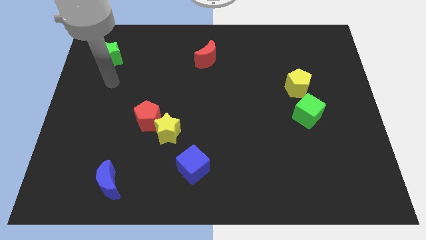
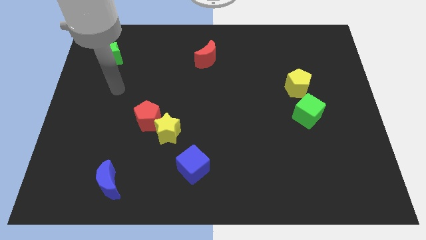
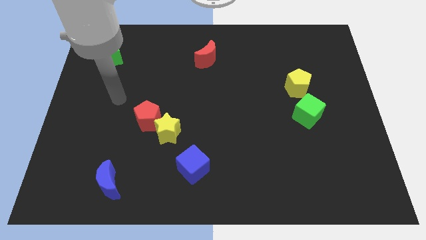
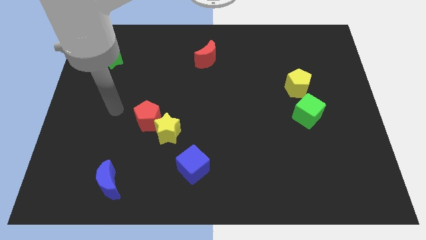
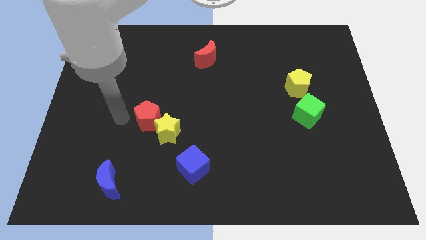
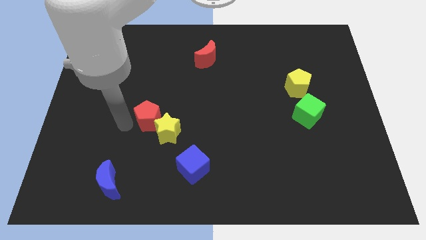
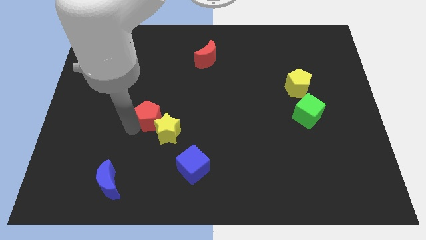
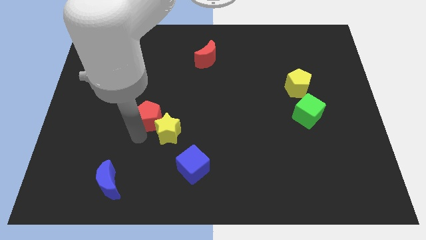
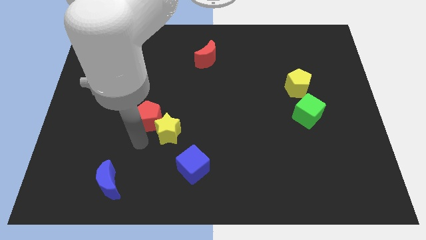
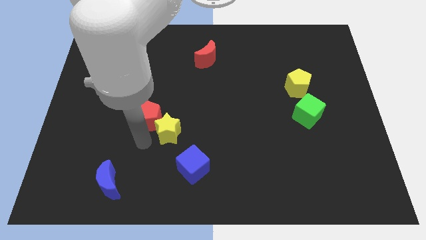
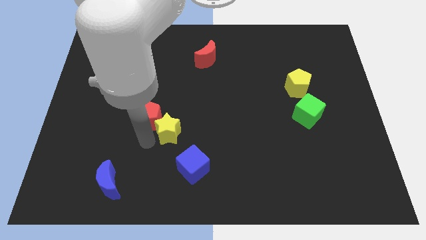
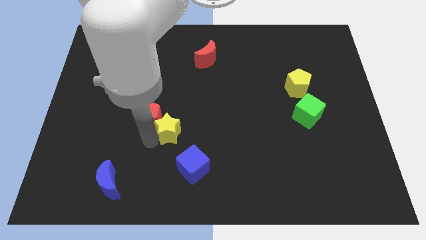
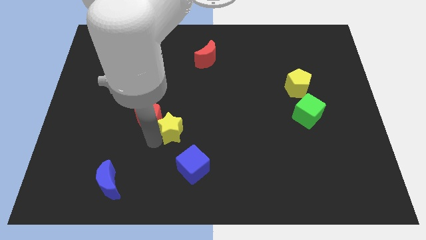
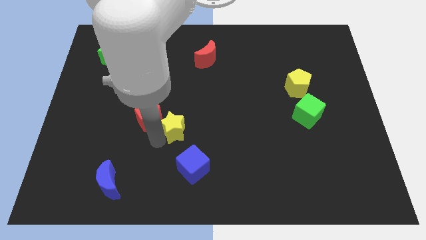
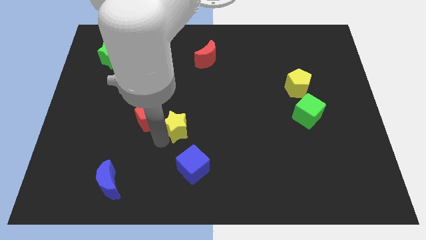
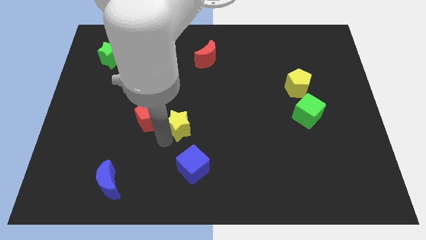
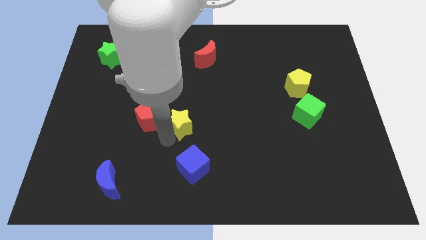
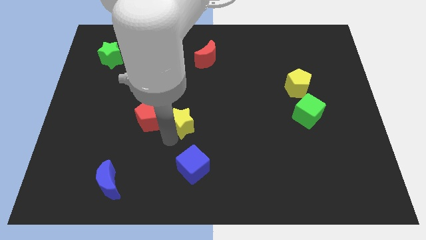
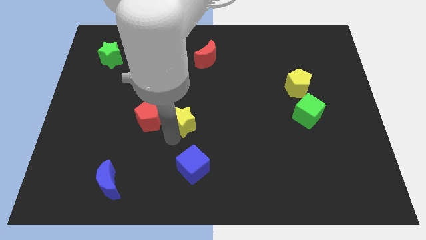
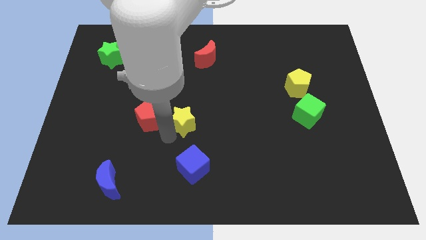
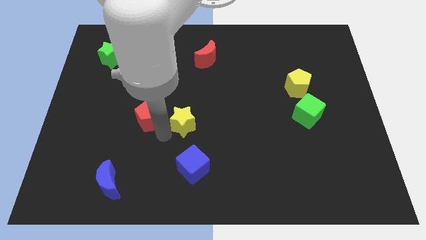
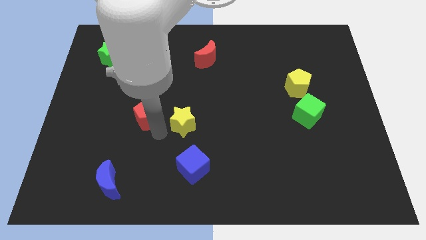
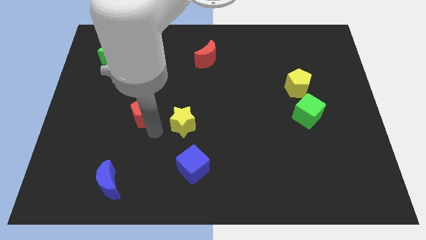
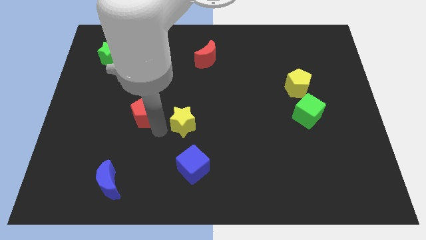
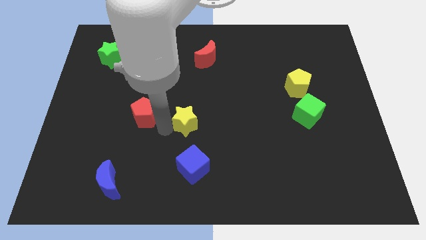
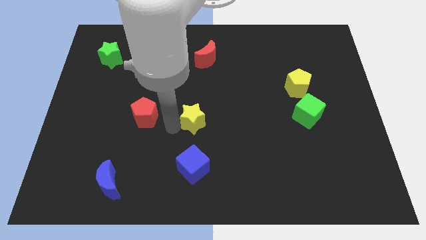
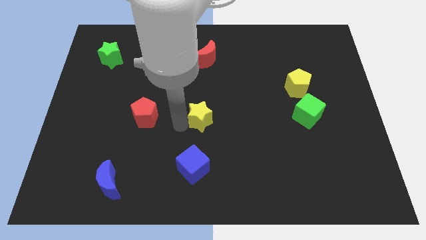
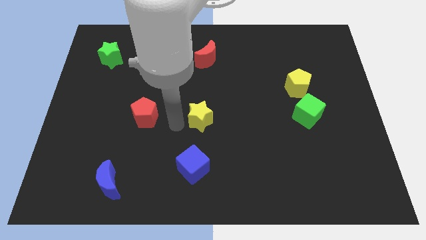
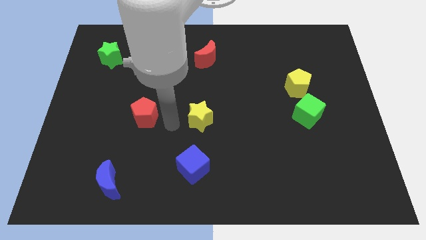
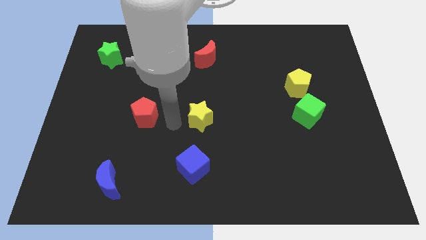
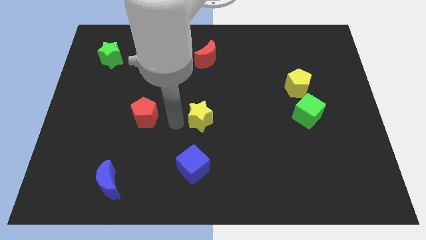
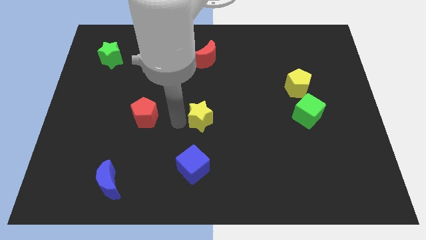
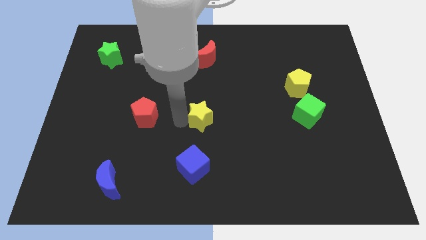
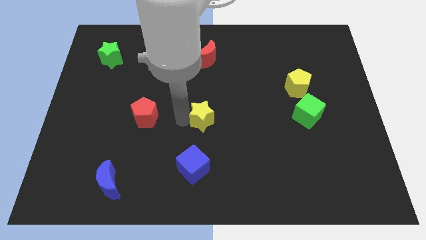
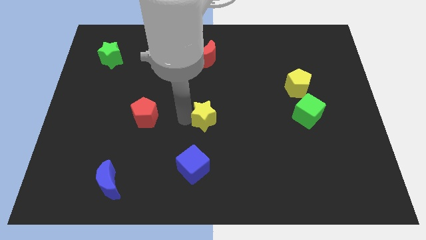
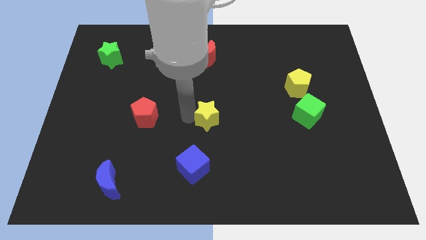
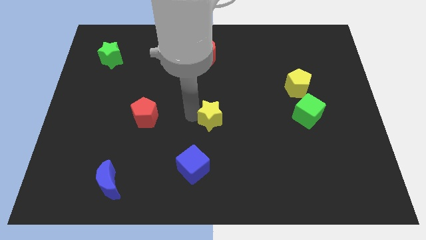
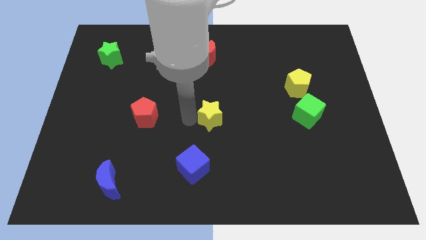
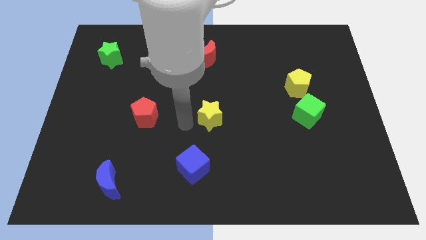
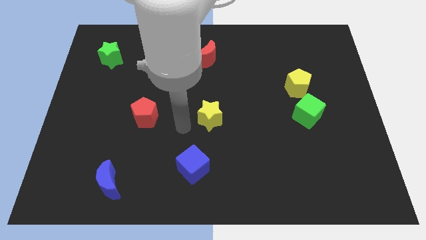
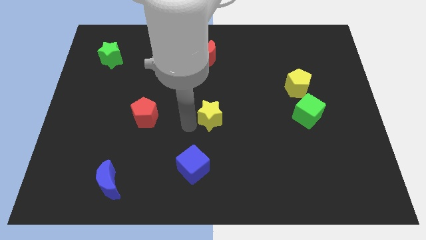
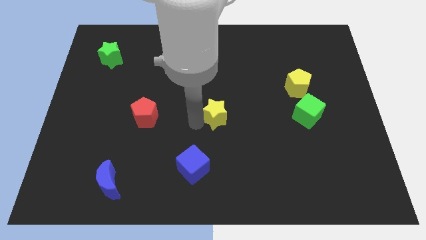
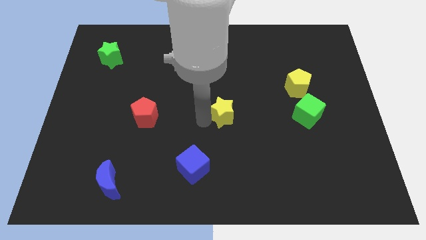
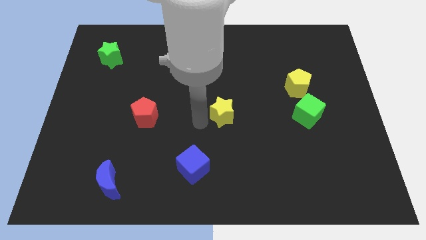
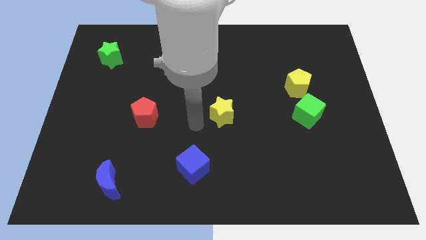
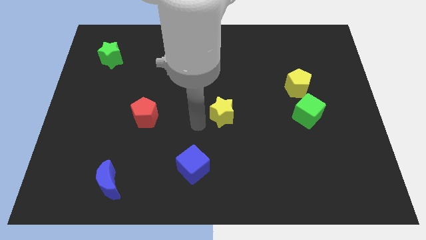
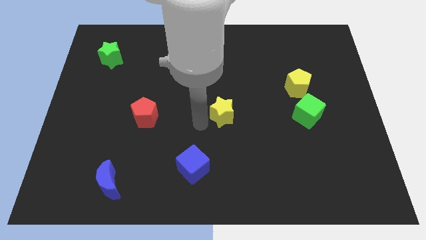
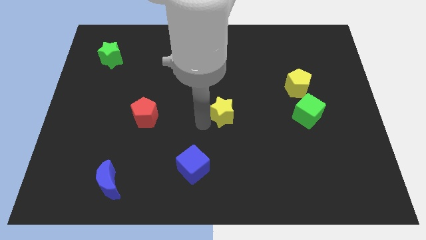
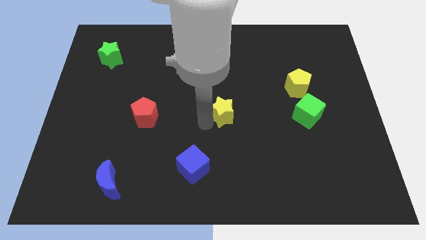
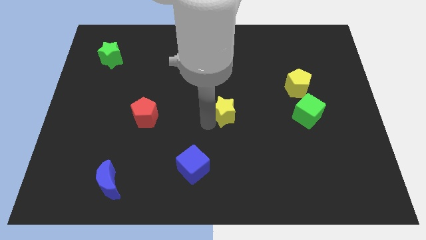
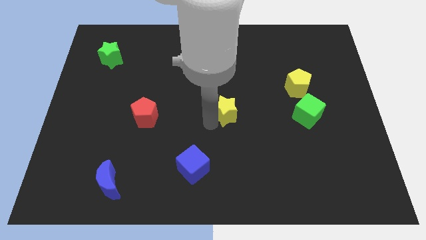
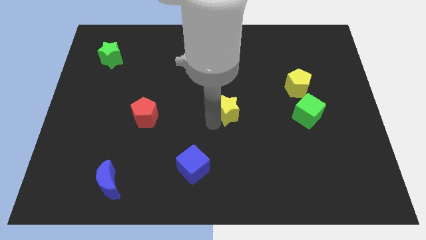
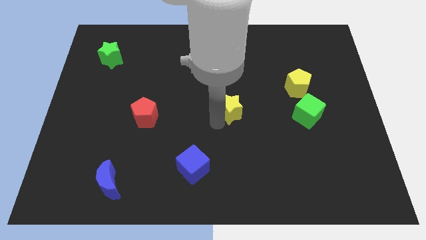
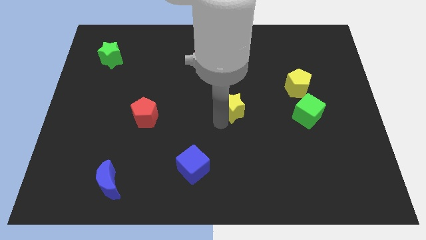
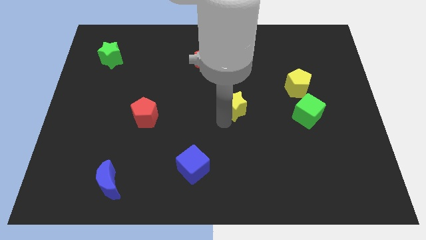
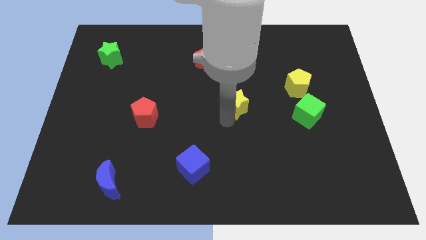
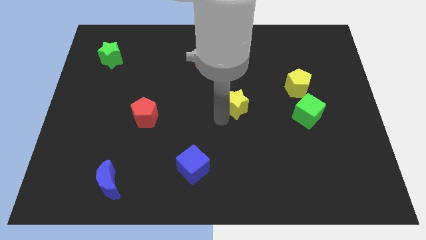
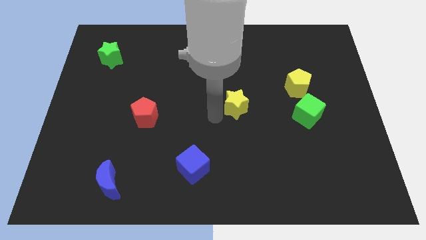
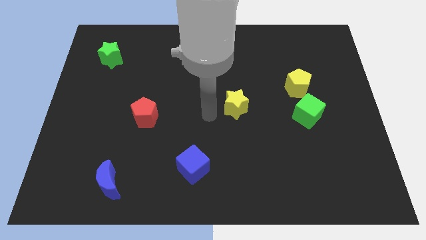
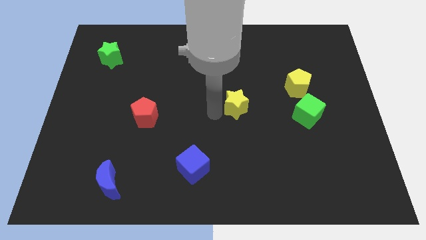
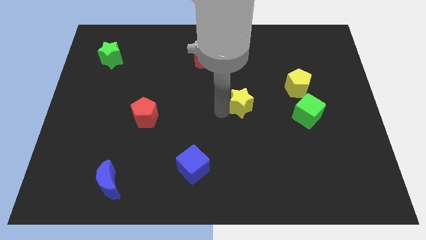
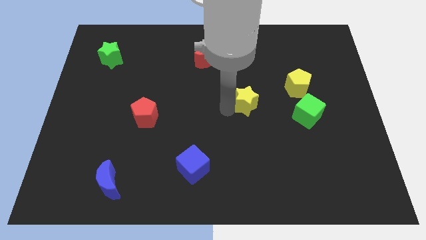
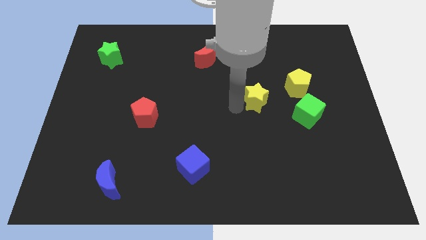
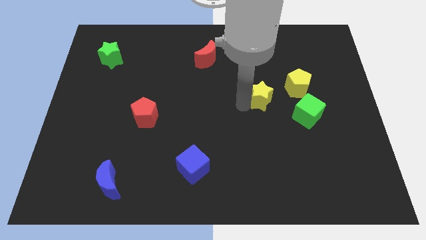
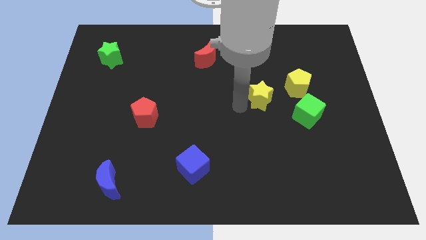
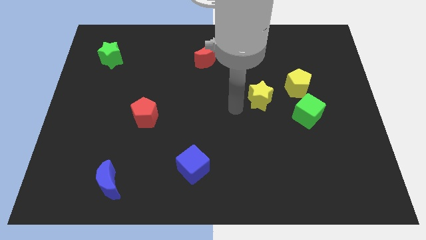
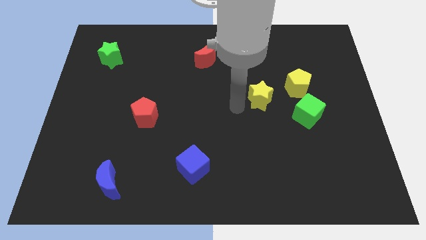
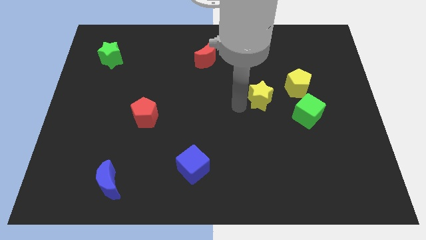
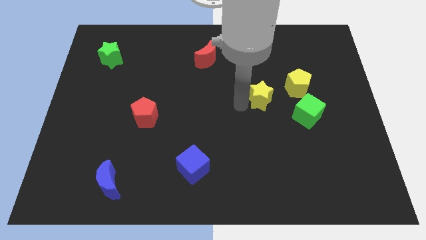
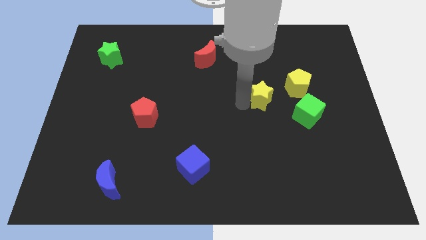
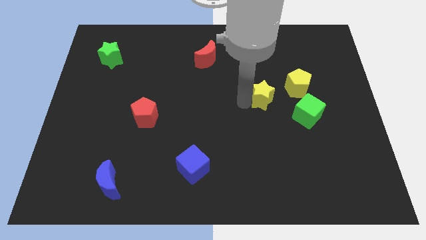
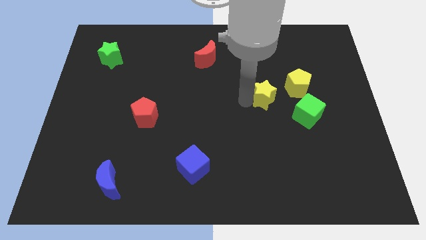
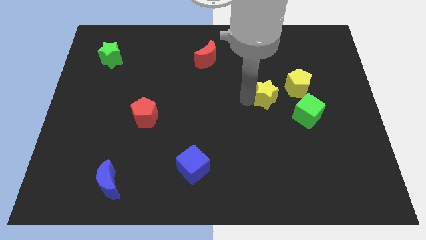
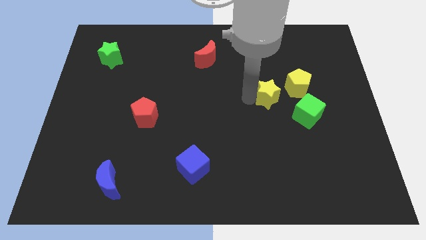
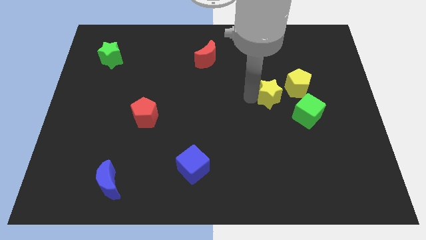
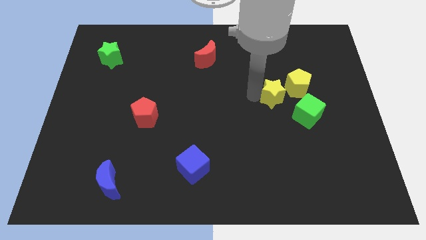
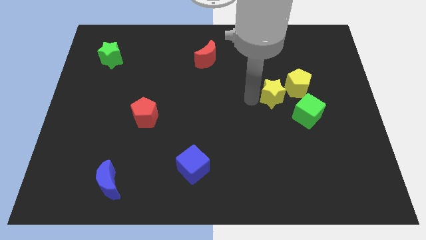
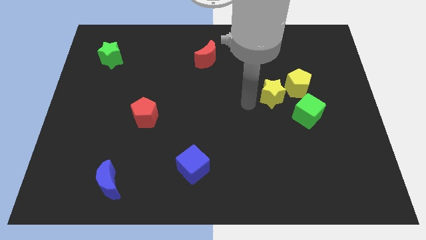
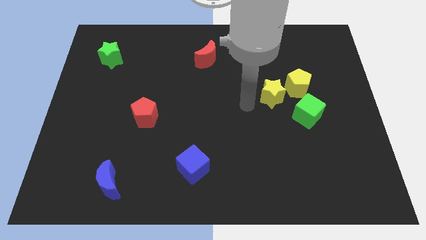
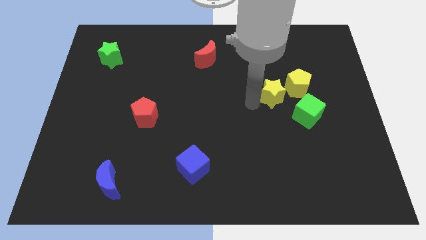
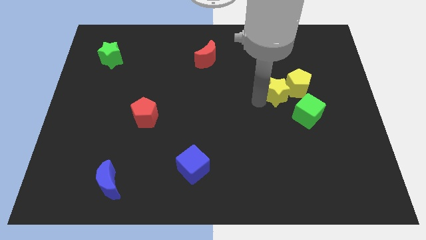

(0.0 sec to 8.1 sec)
move the yellow star next to the yellow pentagon
